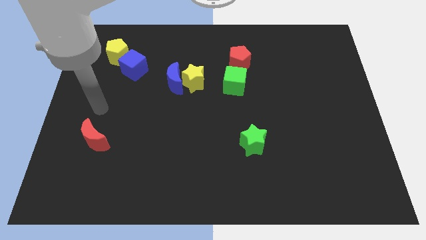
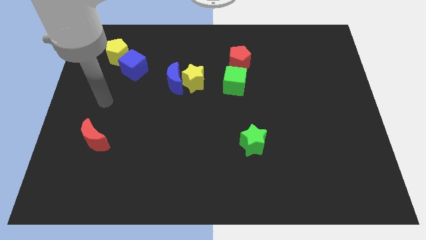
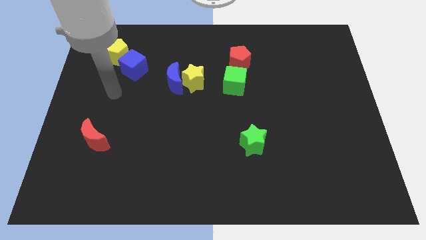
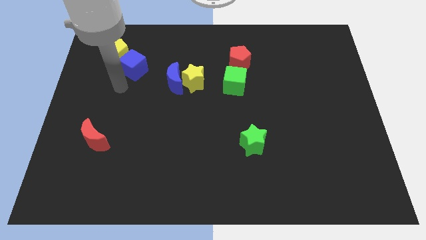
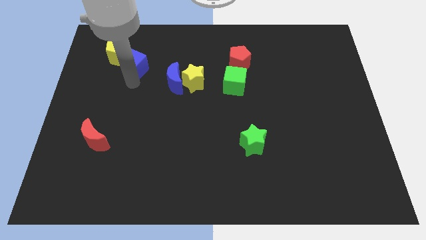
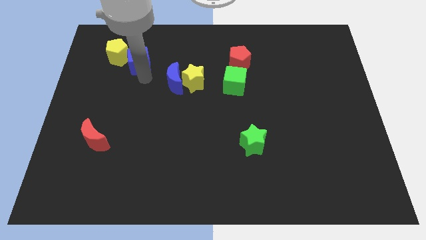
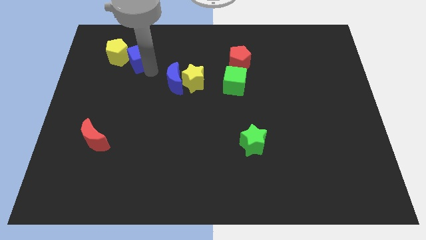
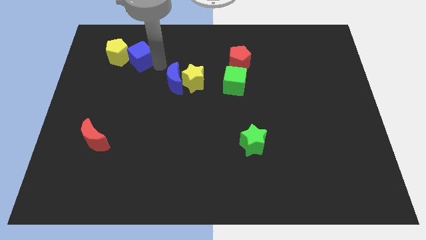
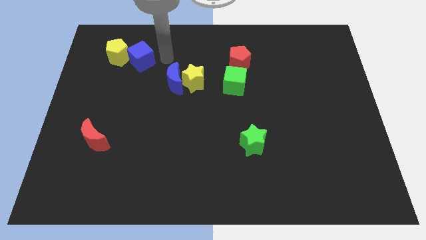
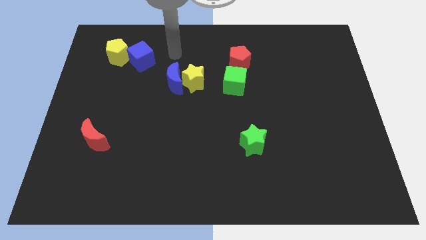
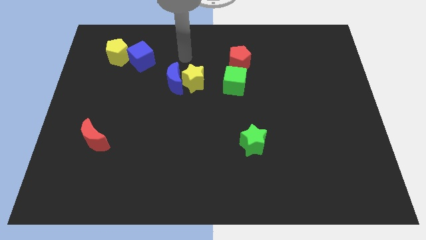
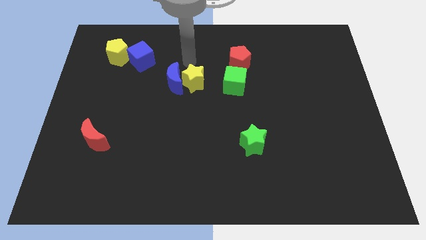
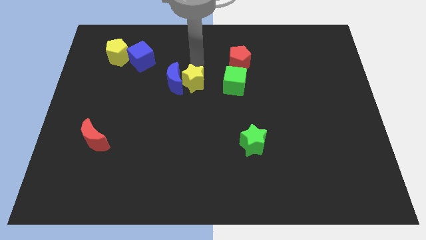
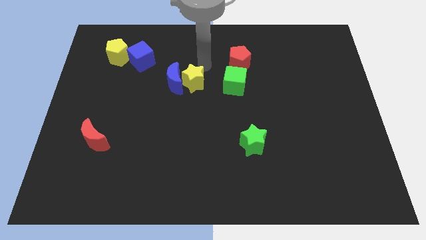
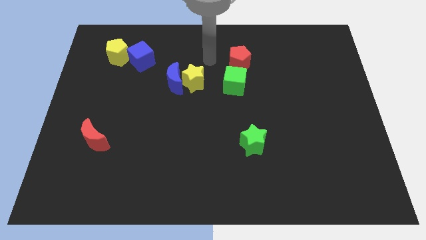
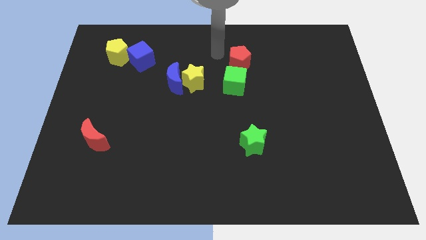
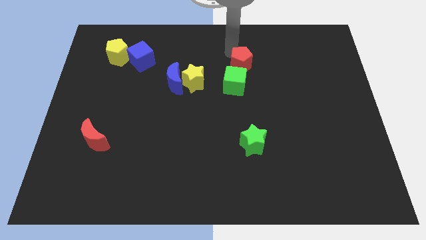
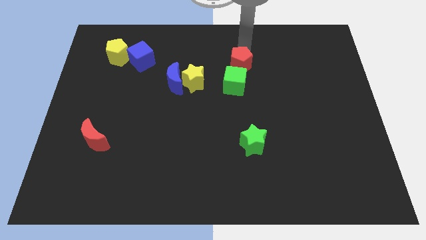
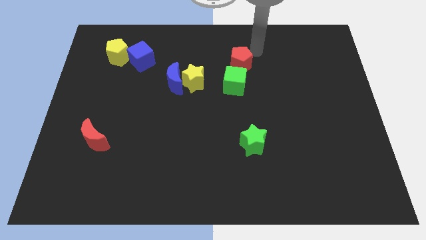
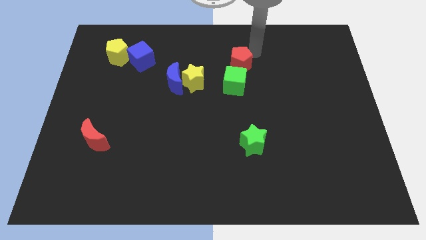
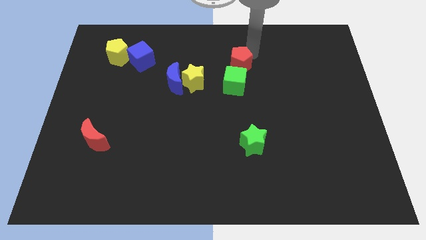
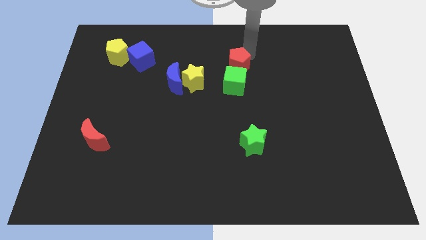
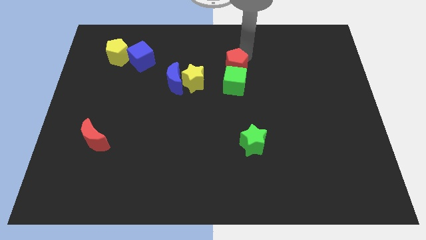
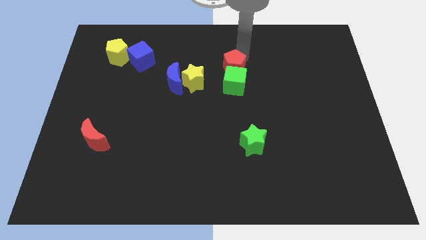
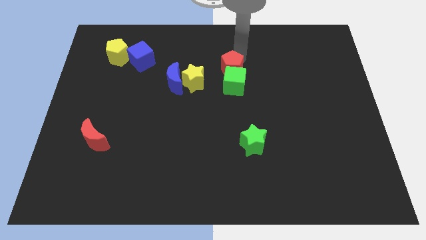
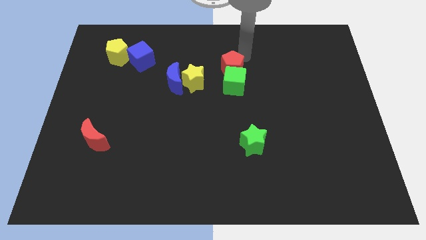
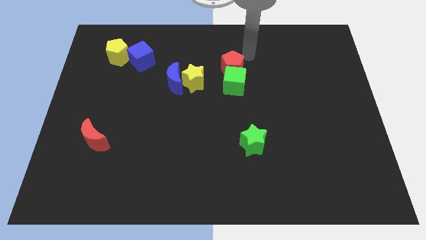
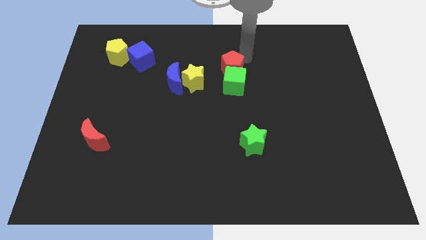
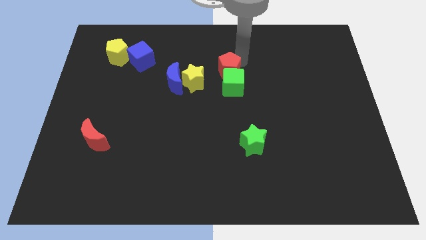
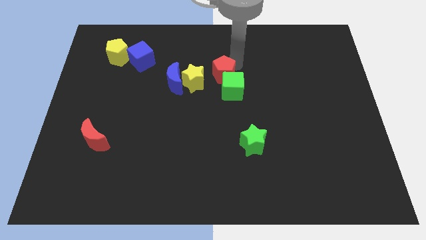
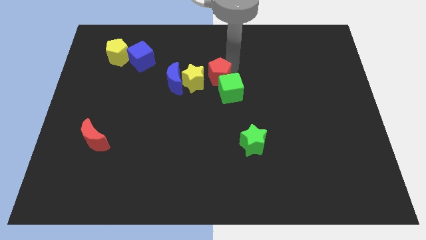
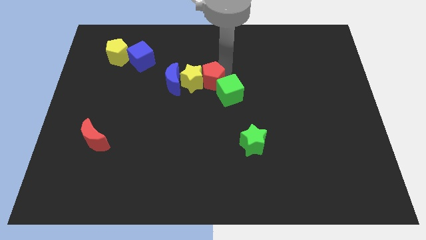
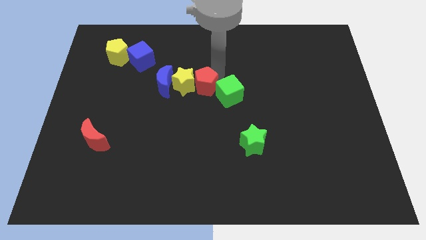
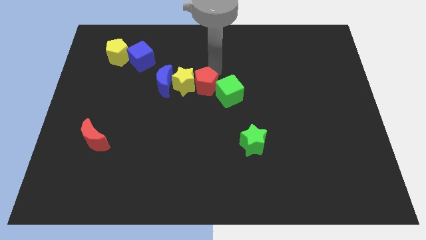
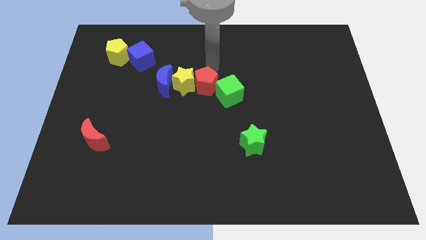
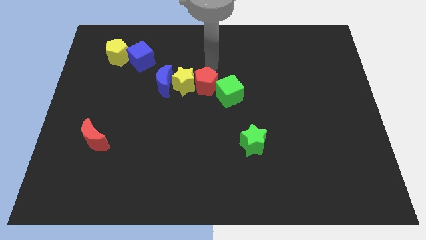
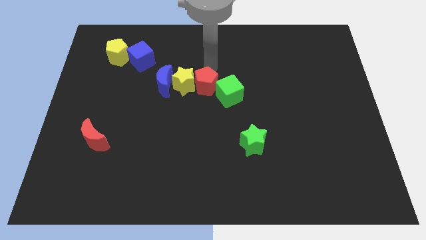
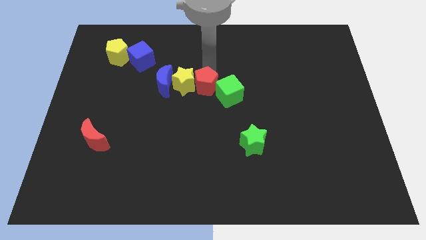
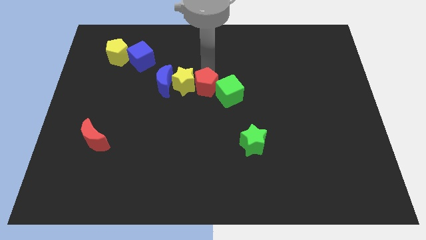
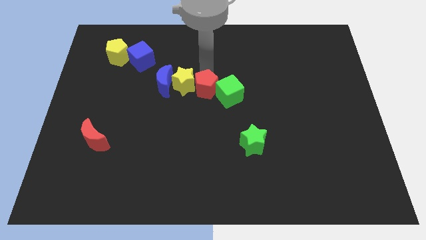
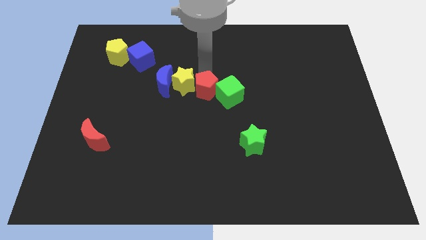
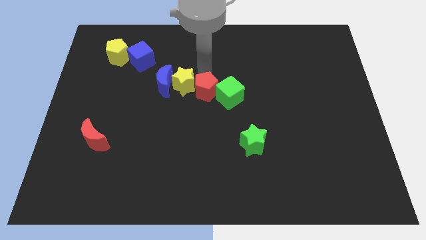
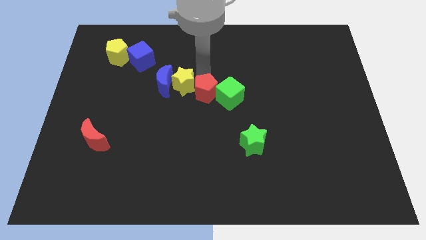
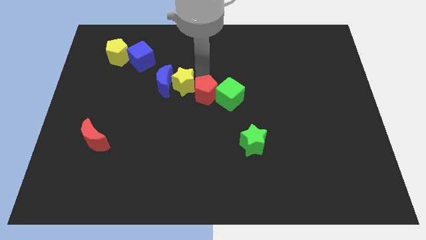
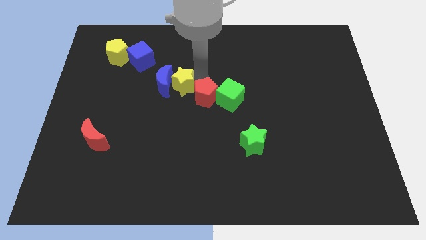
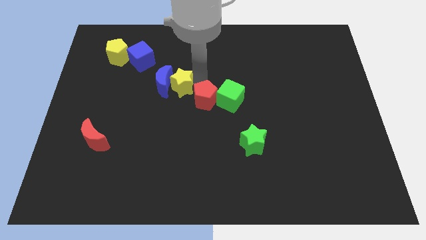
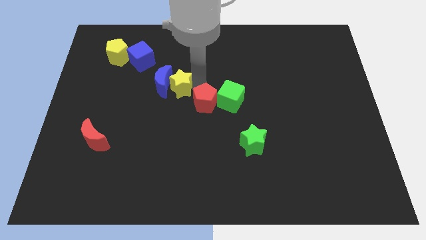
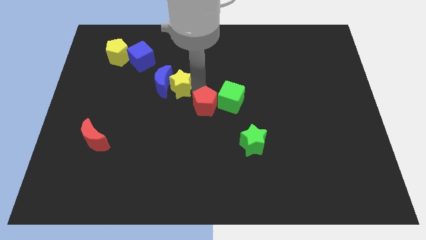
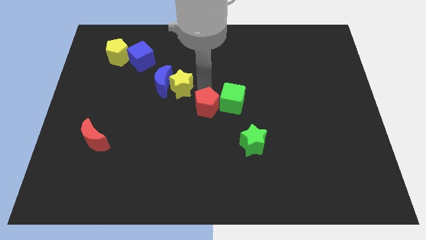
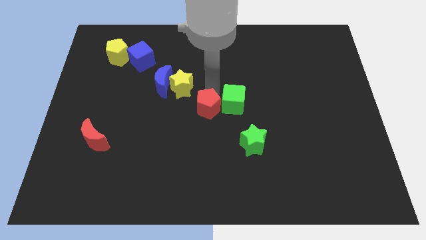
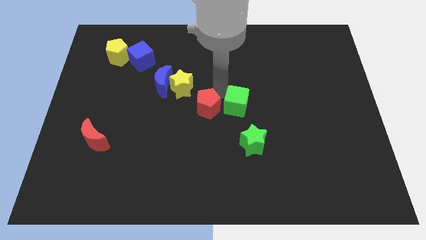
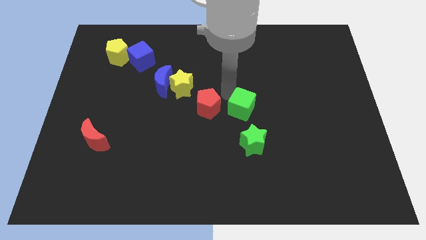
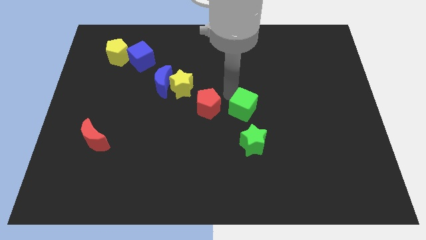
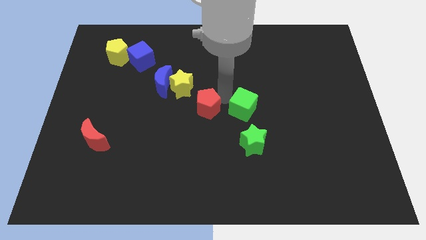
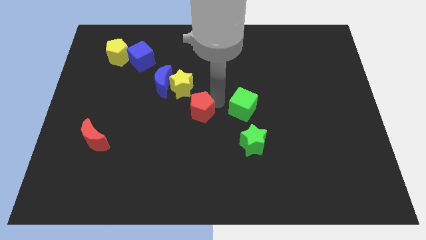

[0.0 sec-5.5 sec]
push the red pentagon below the yellow star

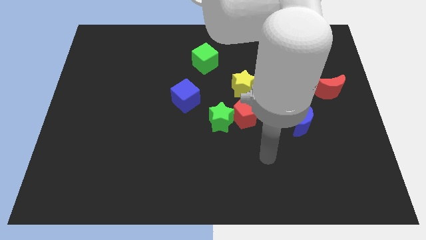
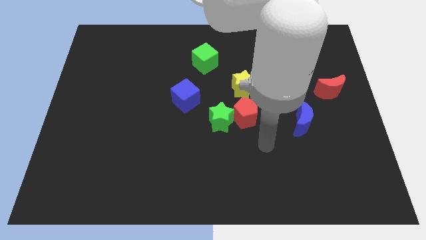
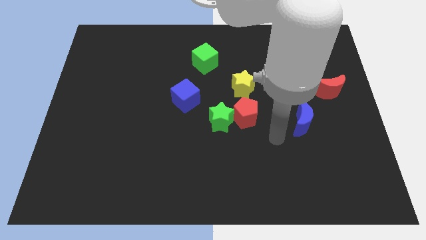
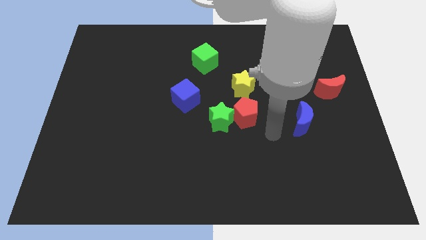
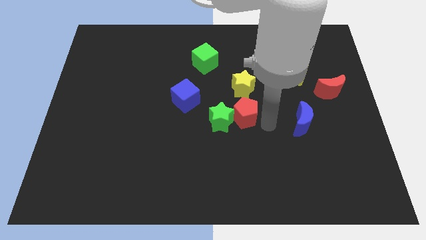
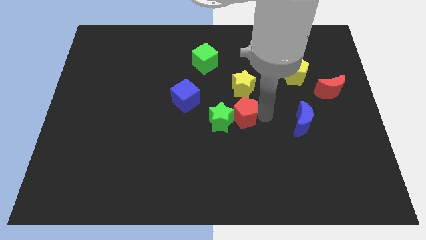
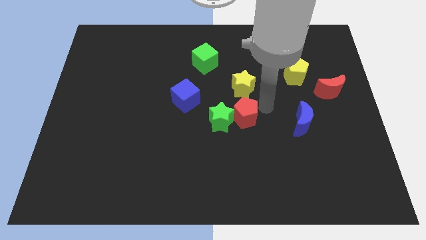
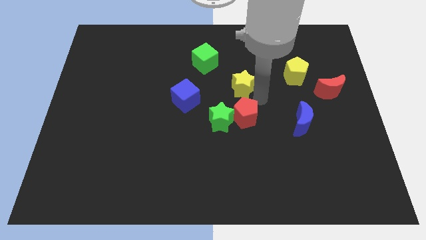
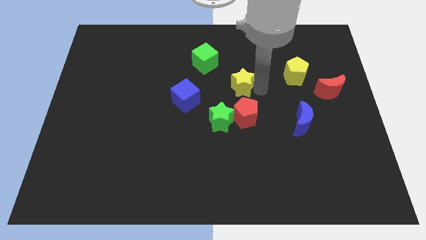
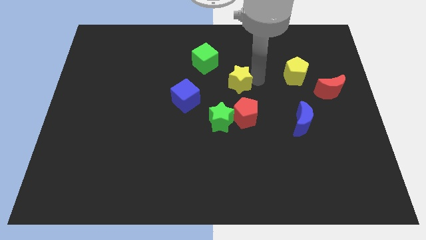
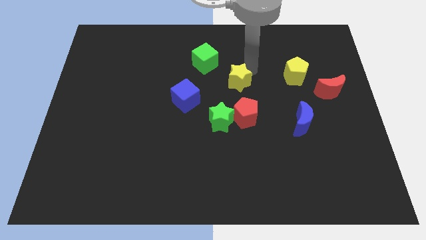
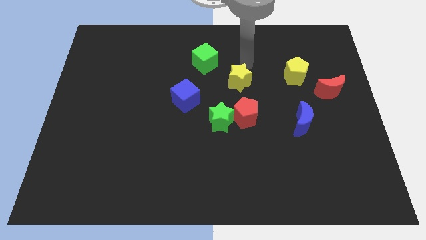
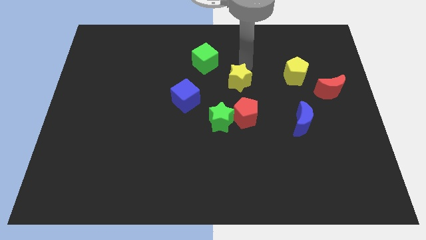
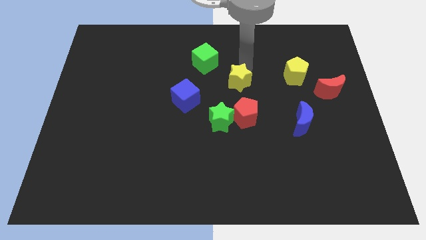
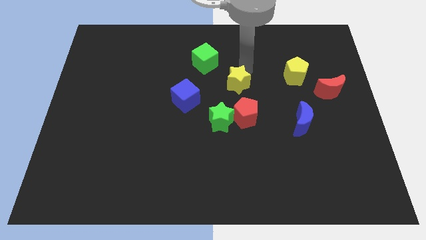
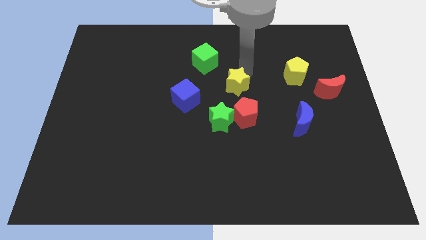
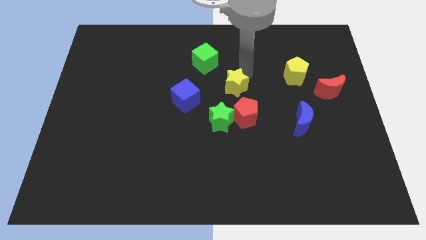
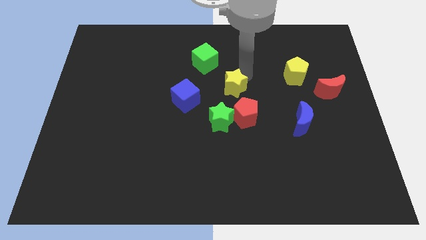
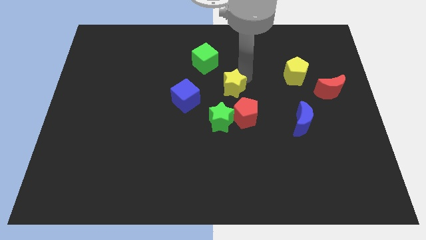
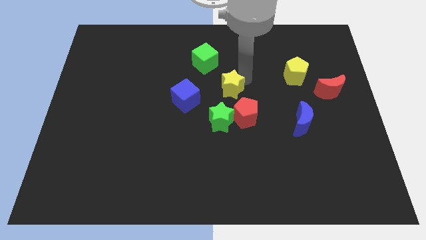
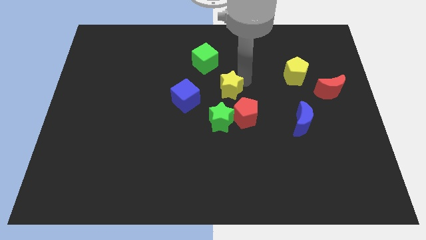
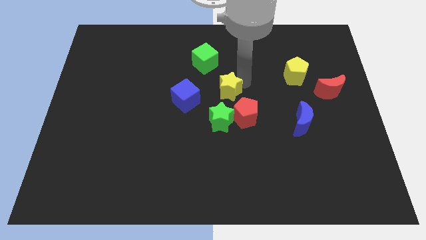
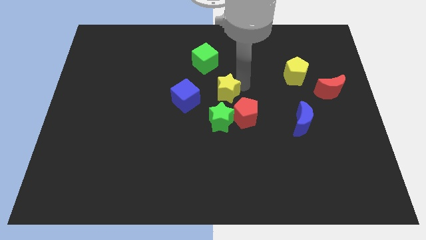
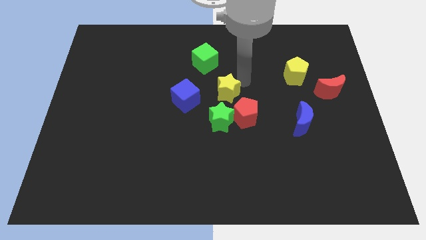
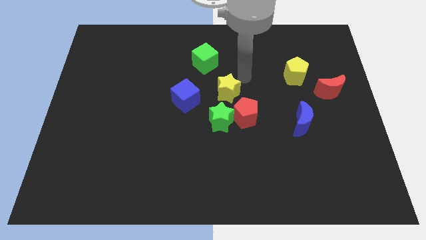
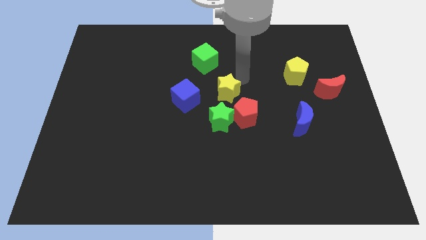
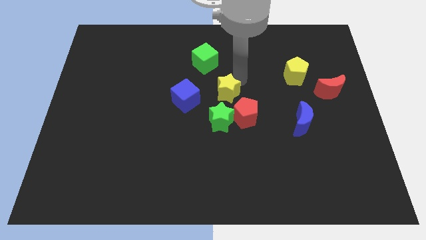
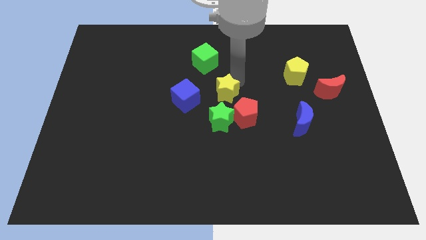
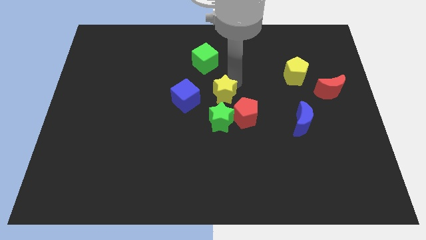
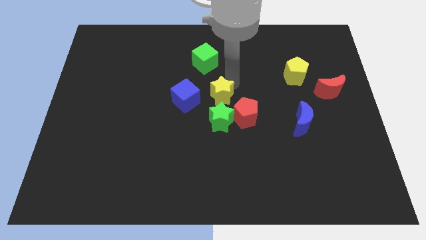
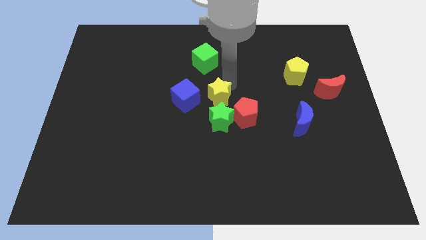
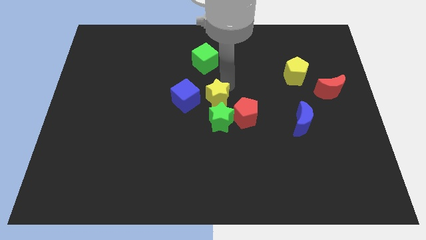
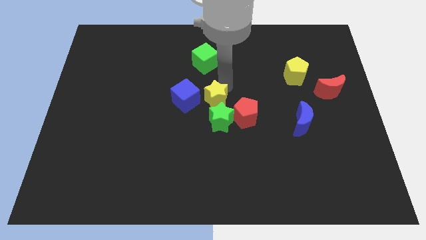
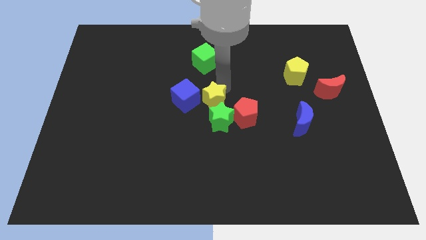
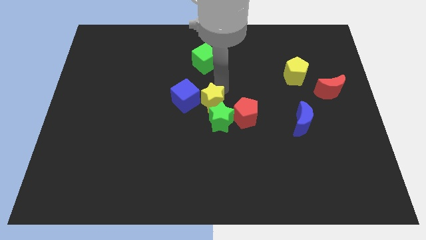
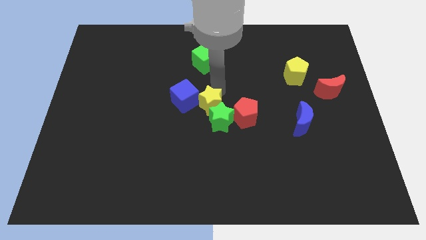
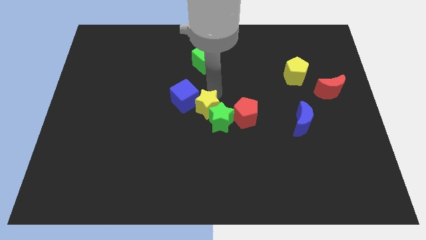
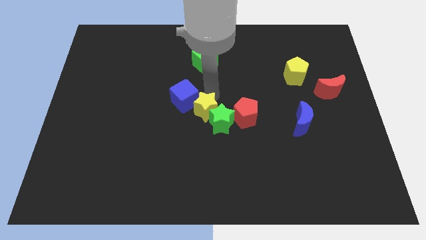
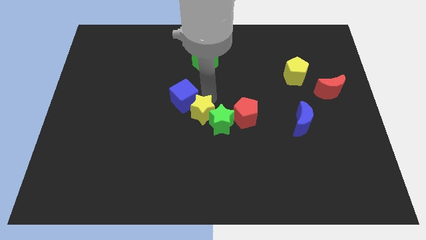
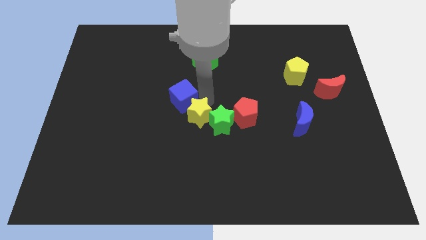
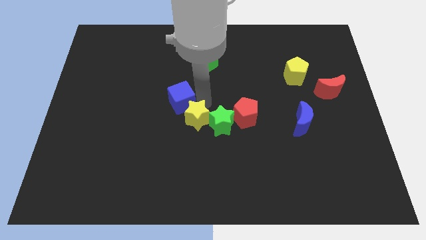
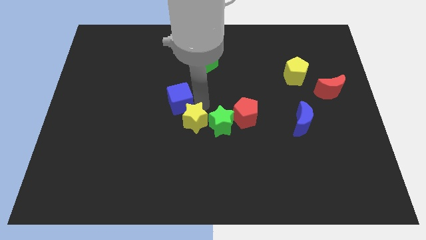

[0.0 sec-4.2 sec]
slide the yellow star to the bottom left side of the green star
